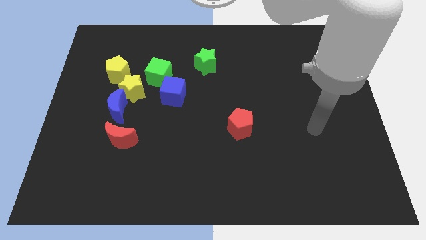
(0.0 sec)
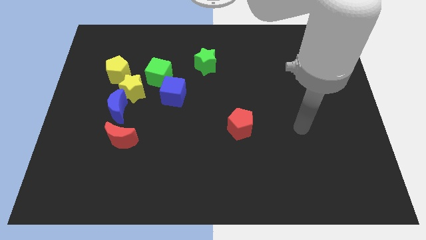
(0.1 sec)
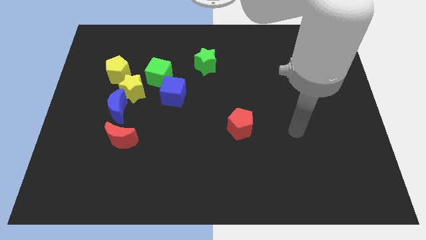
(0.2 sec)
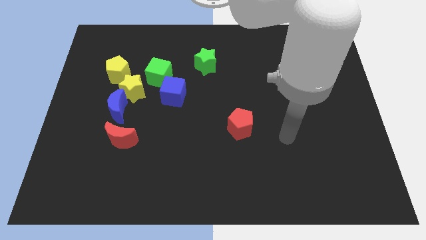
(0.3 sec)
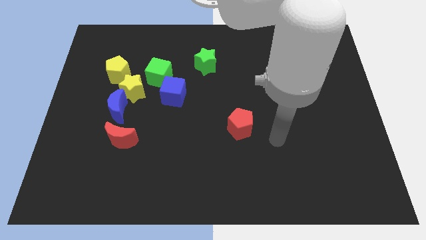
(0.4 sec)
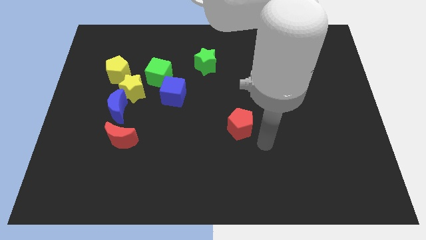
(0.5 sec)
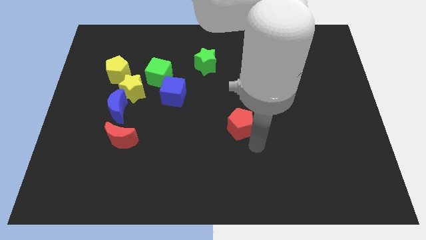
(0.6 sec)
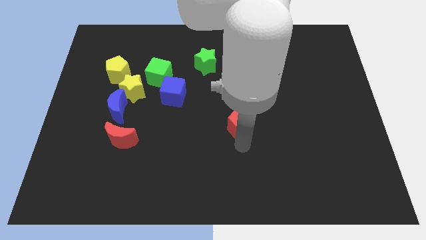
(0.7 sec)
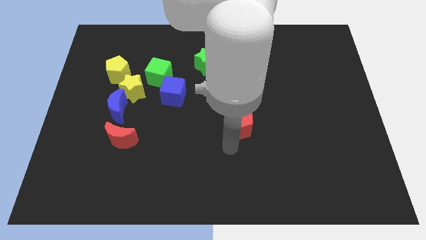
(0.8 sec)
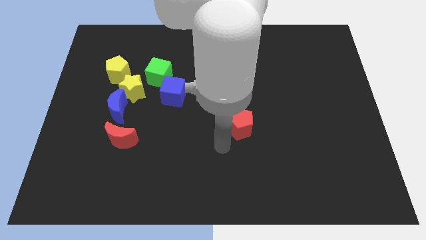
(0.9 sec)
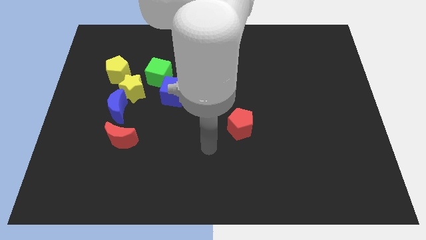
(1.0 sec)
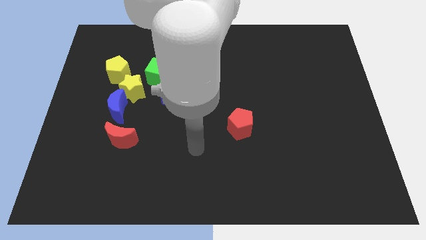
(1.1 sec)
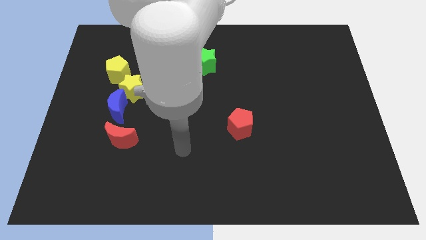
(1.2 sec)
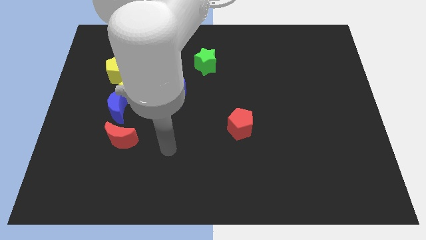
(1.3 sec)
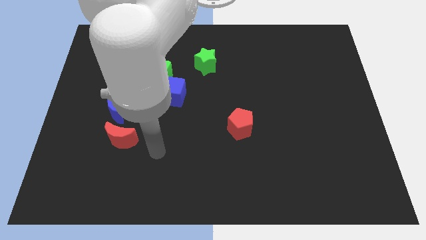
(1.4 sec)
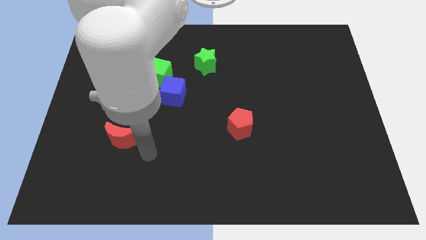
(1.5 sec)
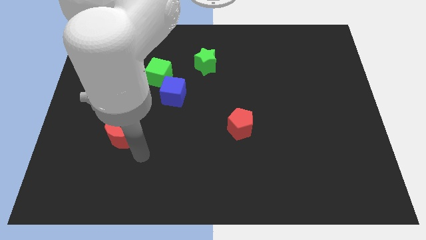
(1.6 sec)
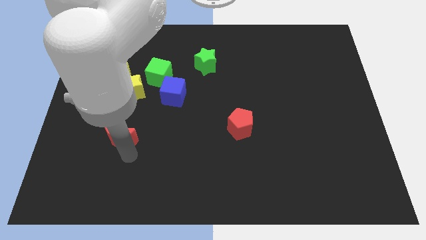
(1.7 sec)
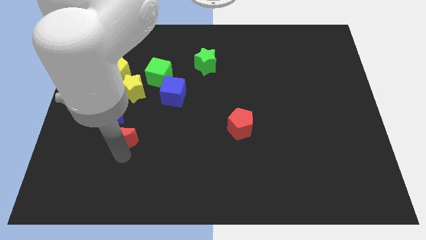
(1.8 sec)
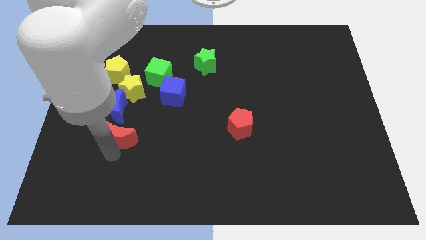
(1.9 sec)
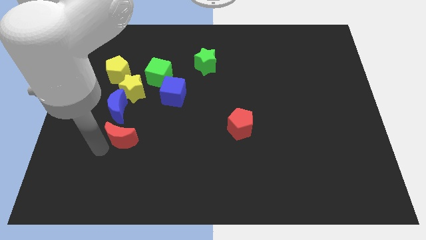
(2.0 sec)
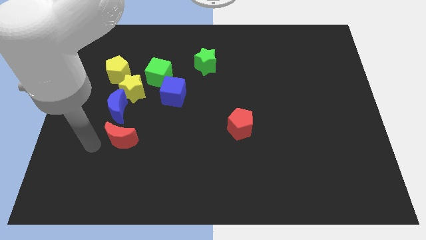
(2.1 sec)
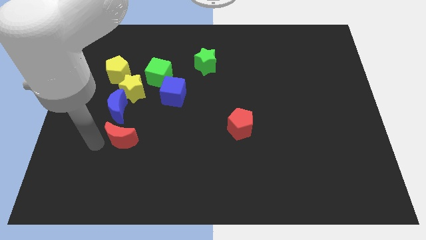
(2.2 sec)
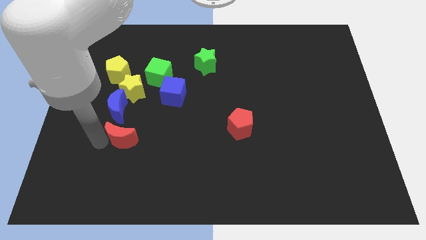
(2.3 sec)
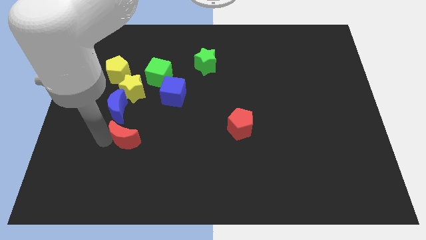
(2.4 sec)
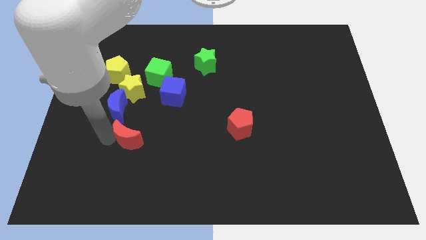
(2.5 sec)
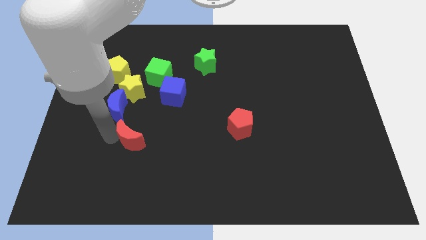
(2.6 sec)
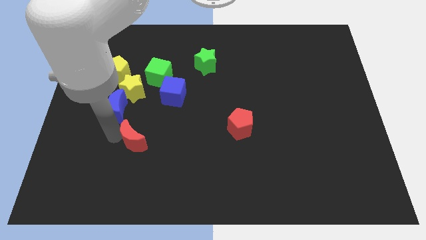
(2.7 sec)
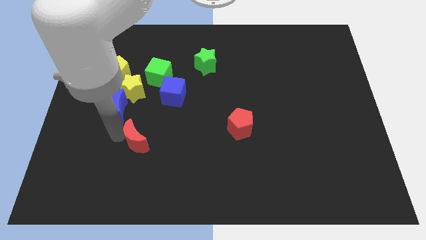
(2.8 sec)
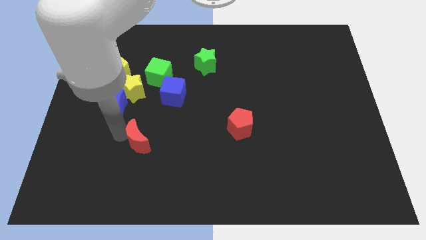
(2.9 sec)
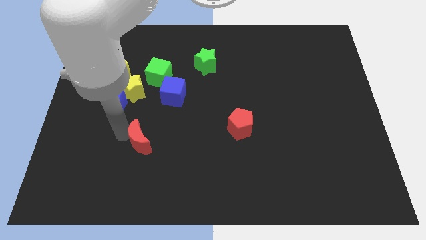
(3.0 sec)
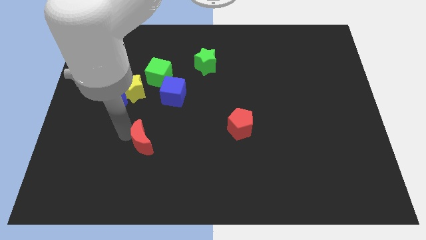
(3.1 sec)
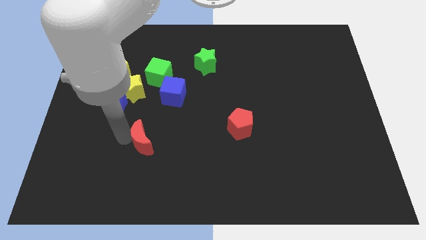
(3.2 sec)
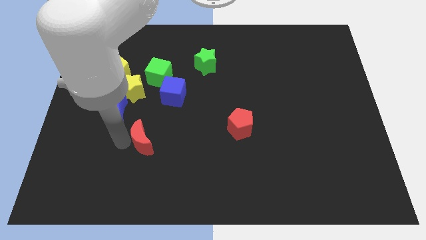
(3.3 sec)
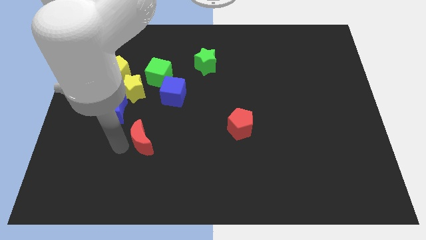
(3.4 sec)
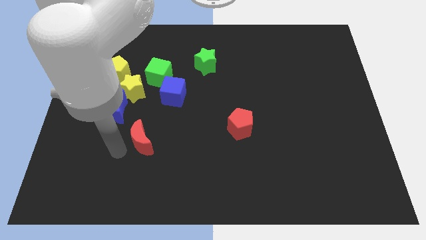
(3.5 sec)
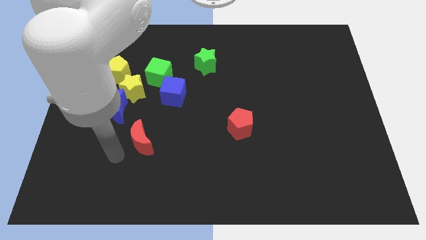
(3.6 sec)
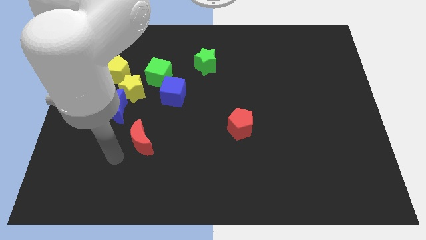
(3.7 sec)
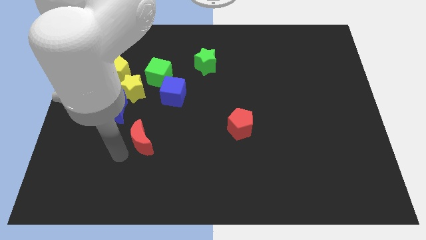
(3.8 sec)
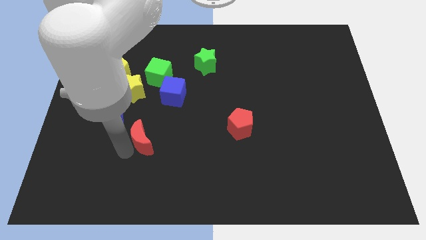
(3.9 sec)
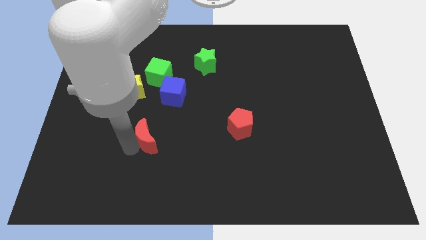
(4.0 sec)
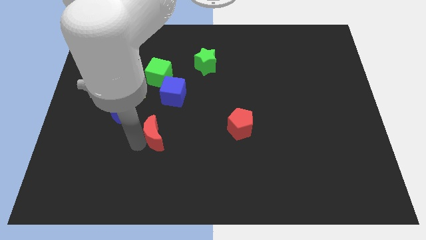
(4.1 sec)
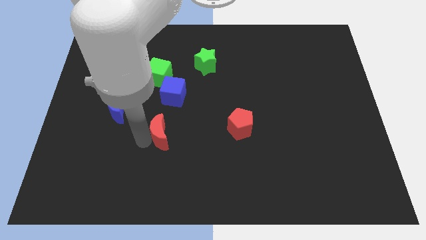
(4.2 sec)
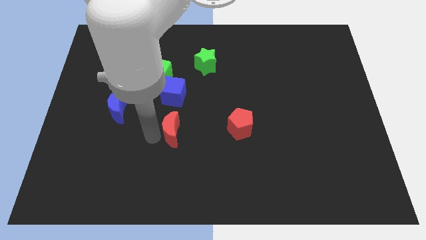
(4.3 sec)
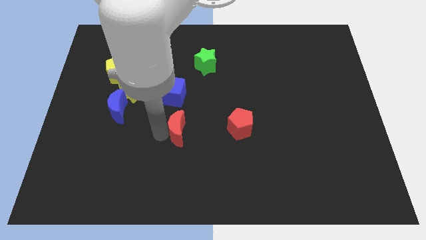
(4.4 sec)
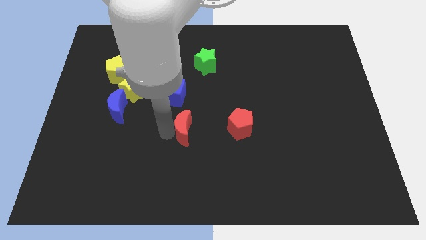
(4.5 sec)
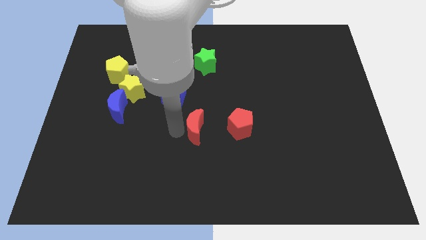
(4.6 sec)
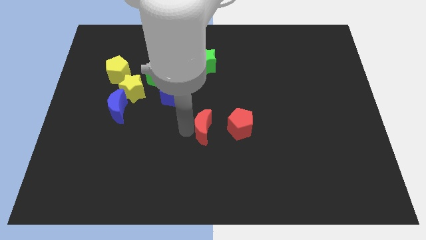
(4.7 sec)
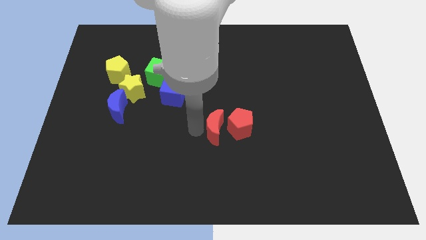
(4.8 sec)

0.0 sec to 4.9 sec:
put the red moon towards the red pentagon

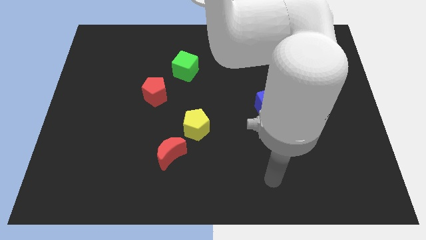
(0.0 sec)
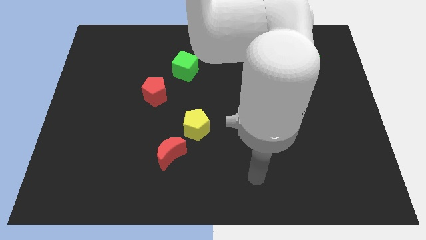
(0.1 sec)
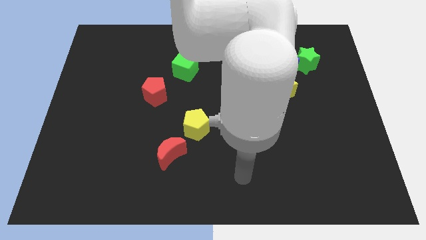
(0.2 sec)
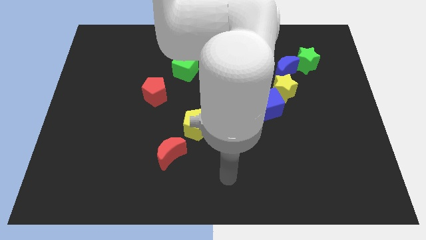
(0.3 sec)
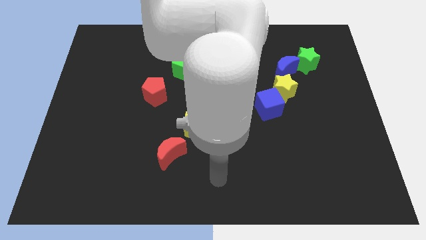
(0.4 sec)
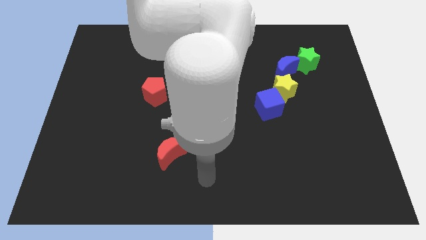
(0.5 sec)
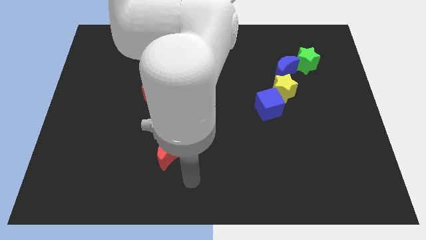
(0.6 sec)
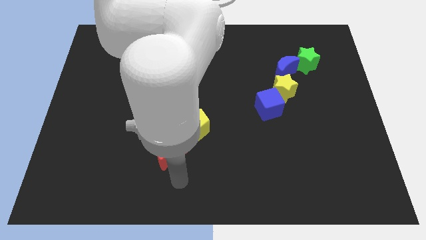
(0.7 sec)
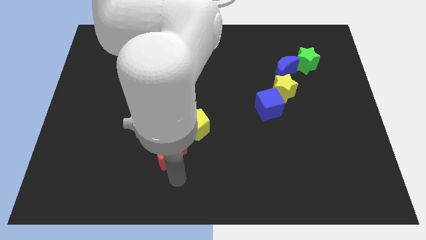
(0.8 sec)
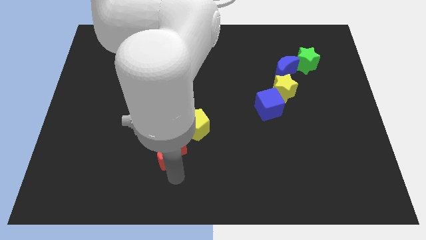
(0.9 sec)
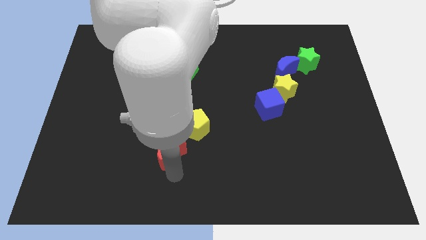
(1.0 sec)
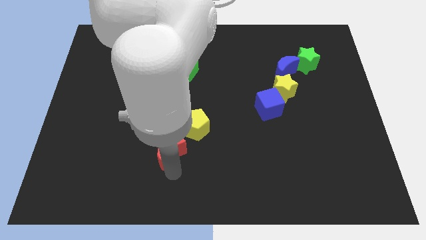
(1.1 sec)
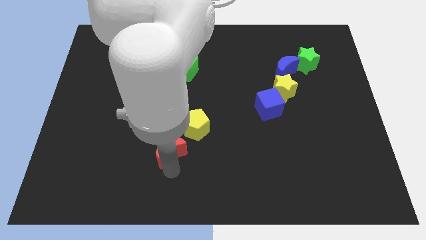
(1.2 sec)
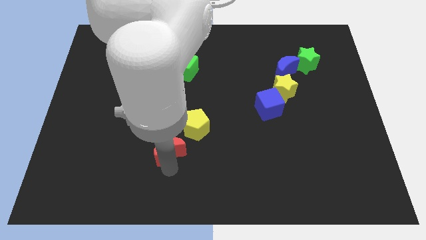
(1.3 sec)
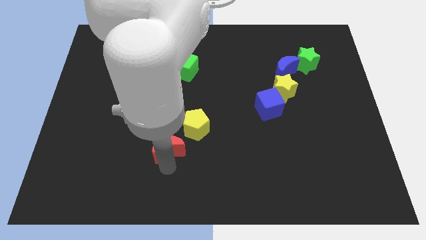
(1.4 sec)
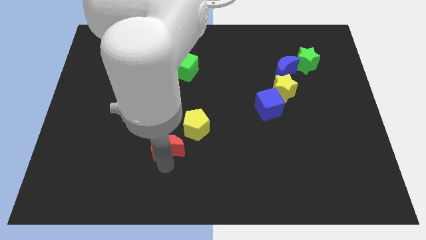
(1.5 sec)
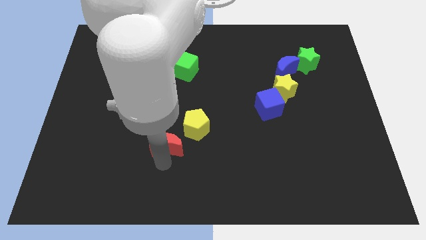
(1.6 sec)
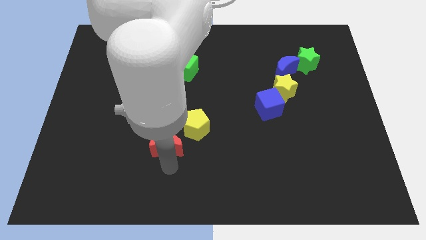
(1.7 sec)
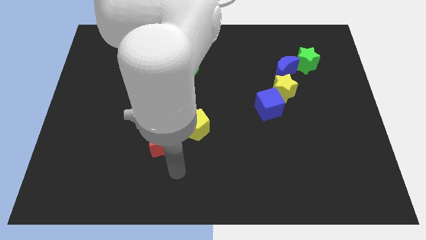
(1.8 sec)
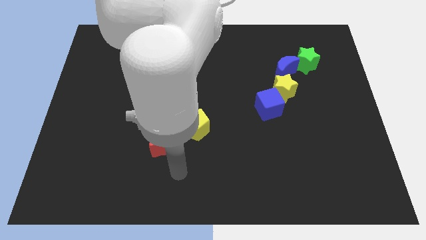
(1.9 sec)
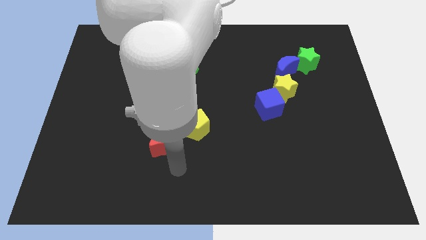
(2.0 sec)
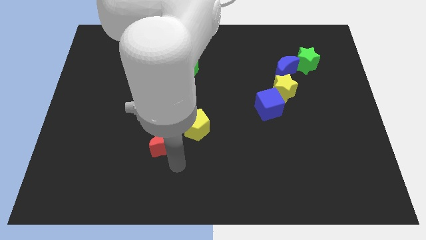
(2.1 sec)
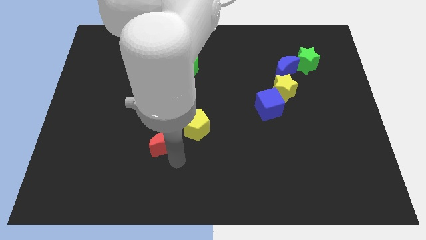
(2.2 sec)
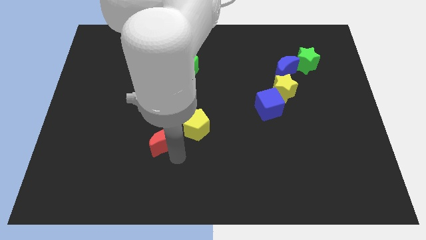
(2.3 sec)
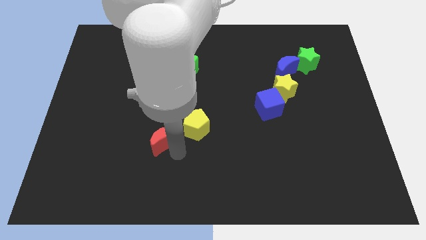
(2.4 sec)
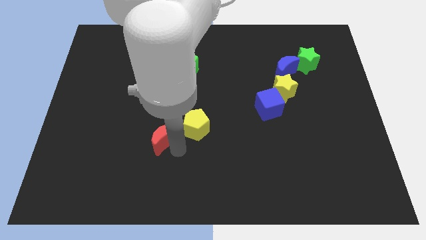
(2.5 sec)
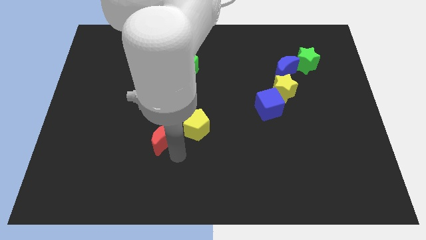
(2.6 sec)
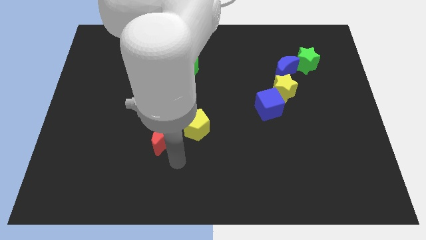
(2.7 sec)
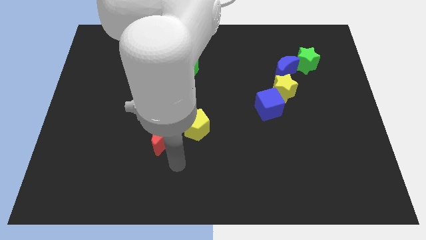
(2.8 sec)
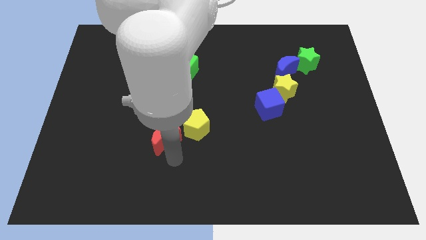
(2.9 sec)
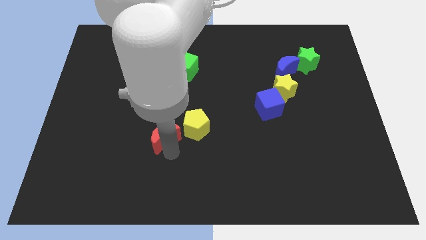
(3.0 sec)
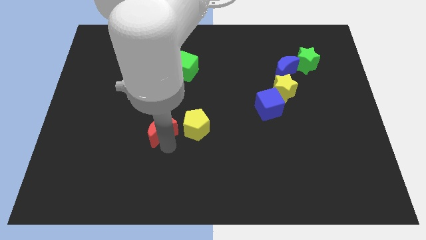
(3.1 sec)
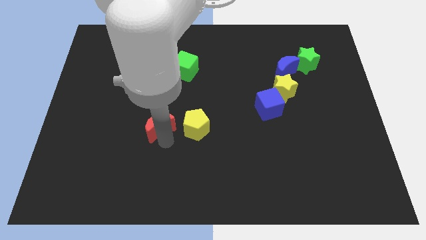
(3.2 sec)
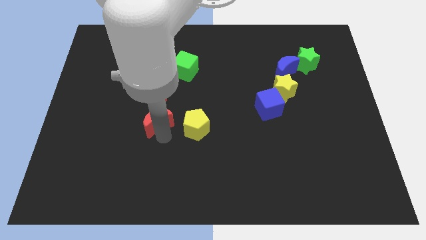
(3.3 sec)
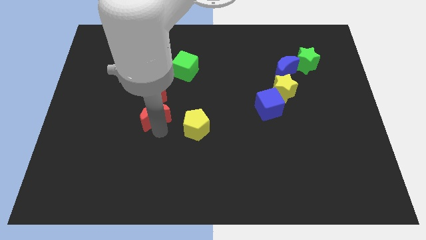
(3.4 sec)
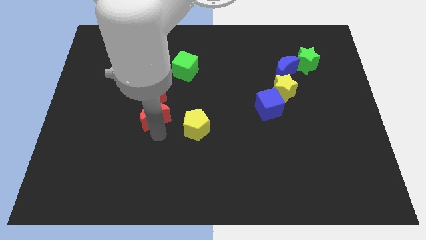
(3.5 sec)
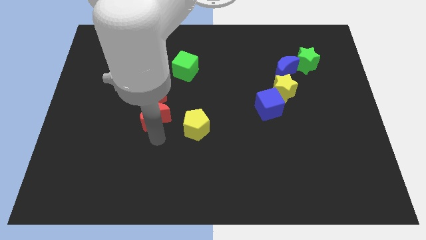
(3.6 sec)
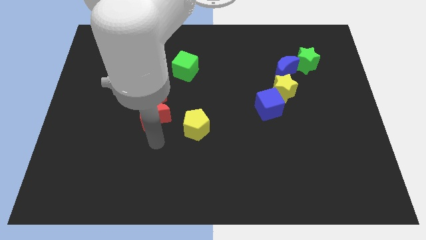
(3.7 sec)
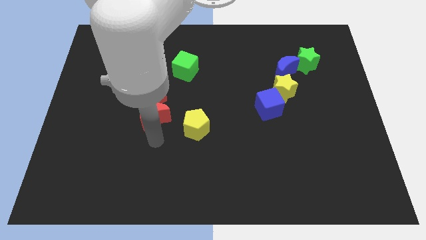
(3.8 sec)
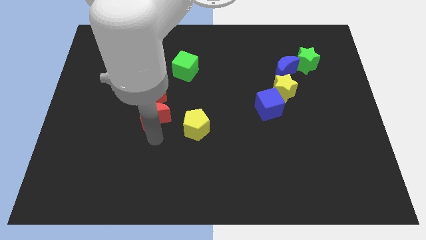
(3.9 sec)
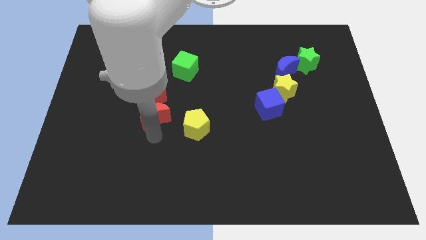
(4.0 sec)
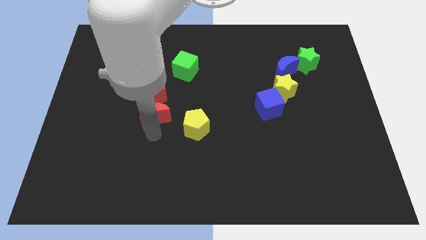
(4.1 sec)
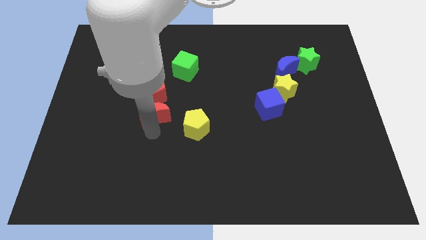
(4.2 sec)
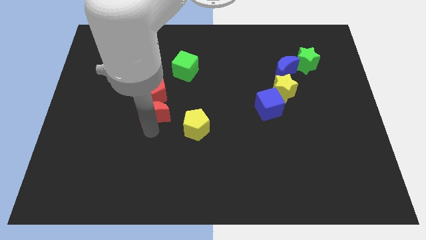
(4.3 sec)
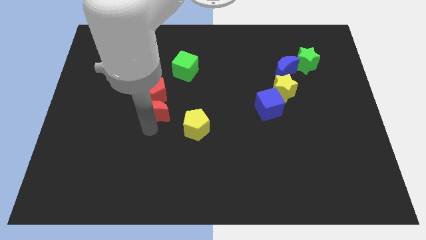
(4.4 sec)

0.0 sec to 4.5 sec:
put the red moon to the red pentagon
